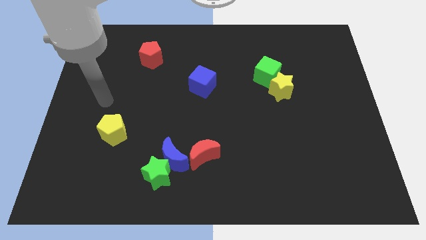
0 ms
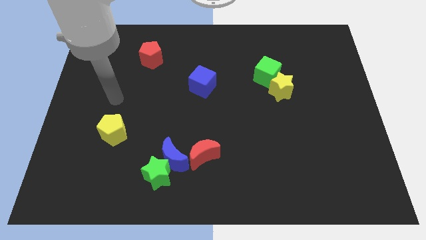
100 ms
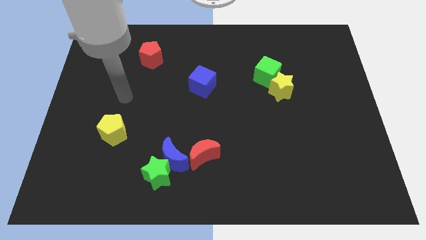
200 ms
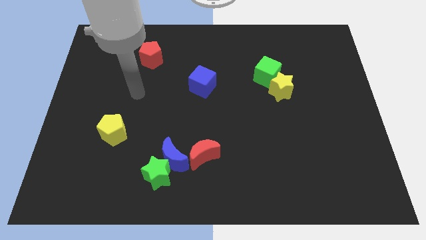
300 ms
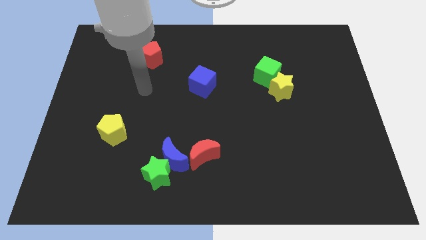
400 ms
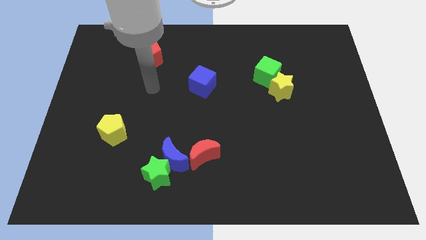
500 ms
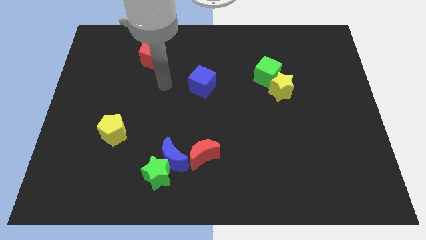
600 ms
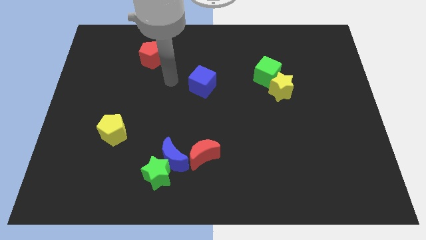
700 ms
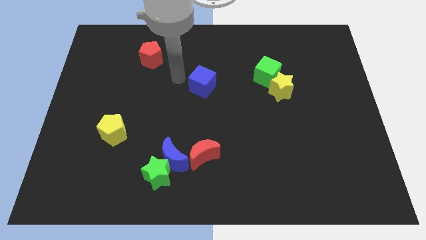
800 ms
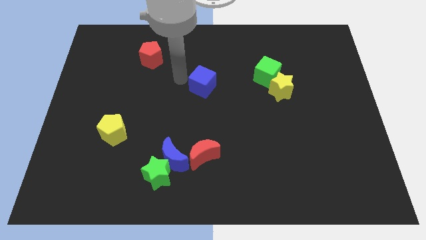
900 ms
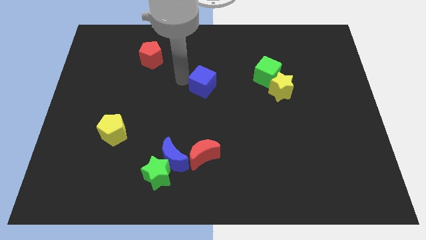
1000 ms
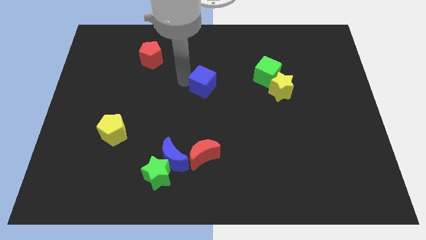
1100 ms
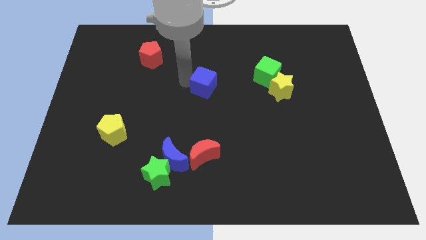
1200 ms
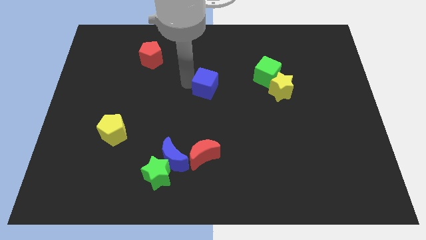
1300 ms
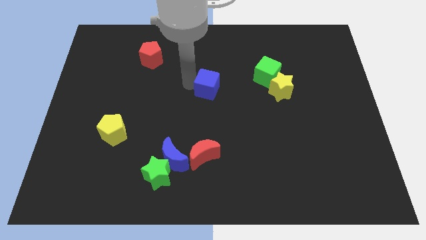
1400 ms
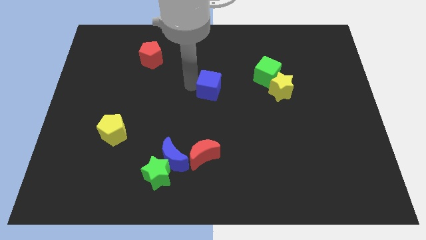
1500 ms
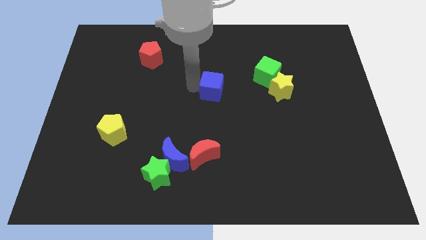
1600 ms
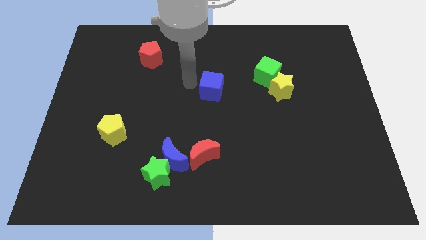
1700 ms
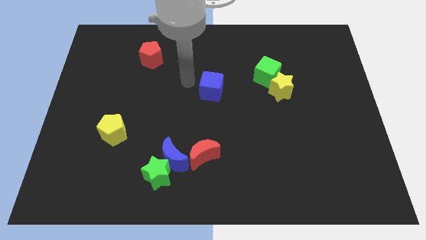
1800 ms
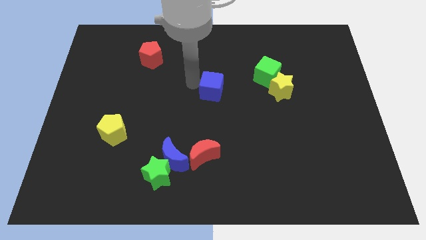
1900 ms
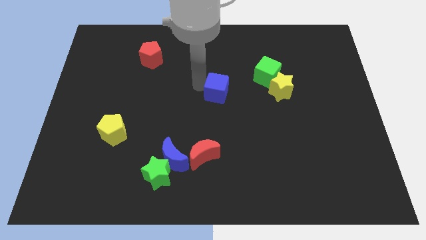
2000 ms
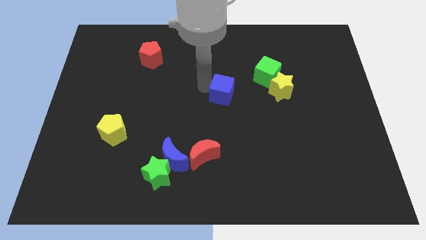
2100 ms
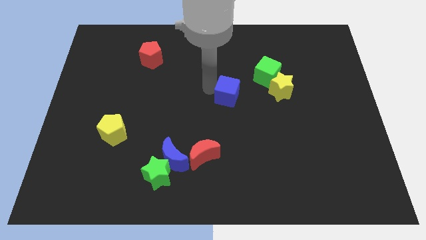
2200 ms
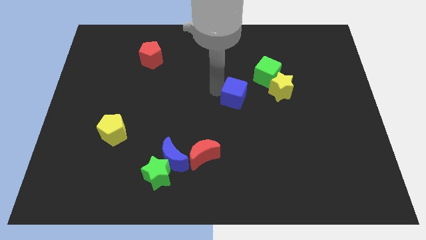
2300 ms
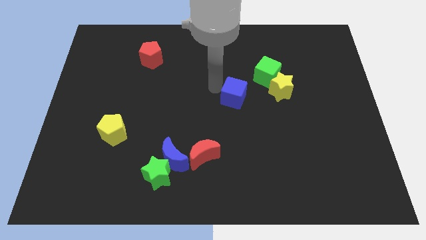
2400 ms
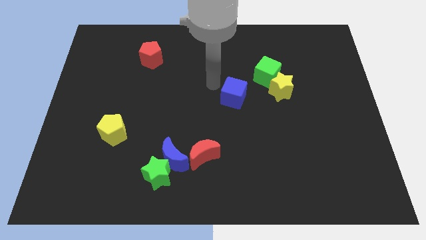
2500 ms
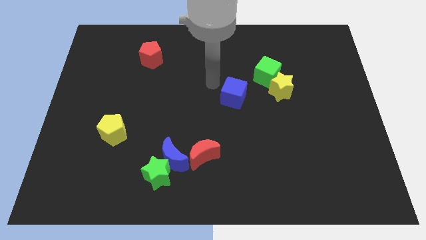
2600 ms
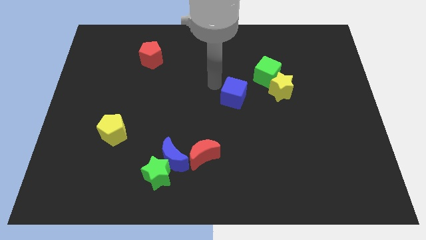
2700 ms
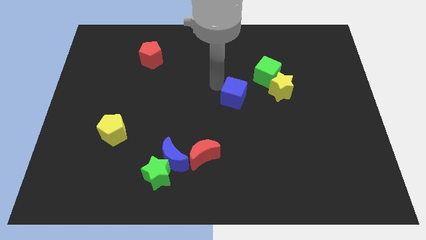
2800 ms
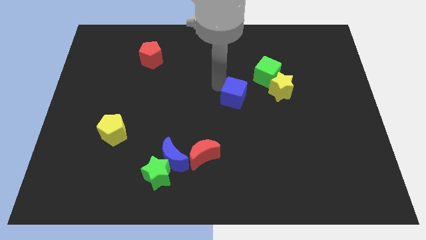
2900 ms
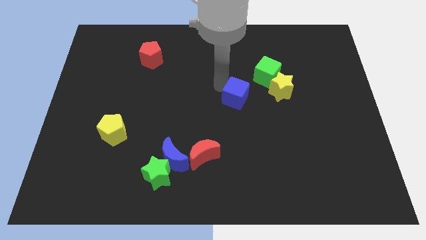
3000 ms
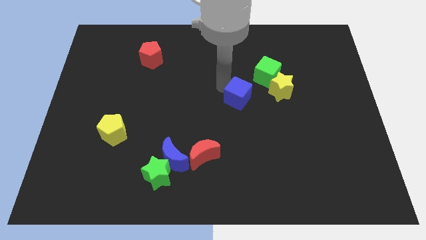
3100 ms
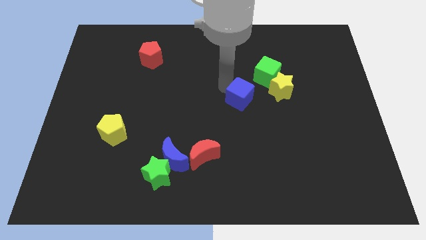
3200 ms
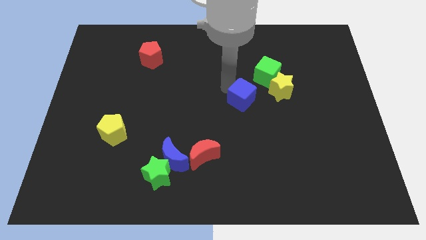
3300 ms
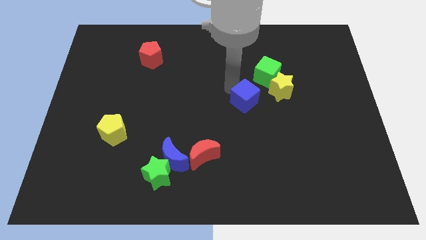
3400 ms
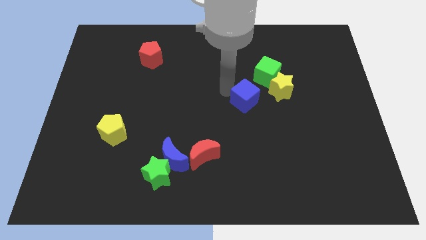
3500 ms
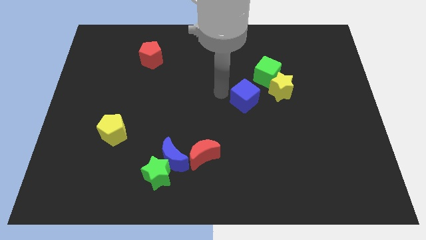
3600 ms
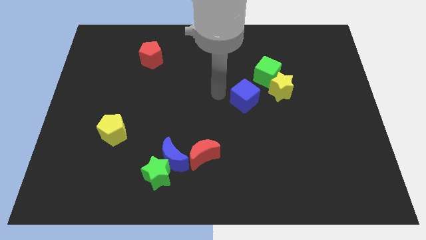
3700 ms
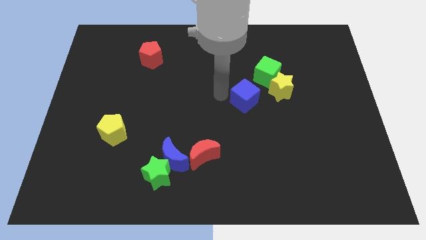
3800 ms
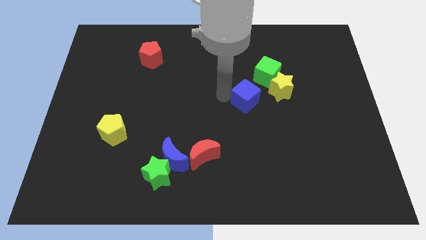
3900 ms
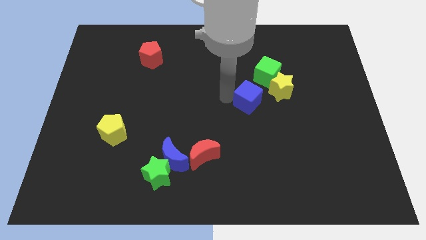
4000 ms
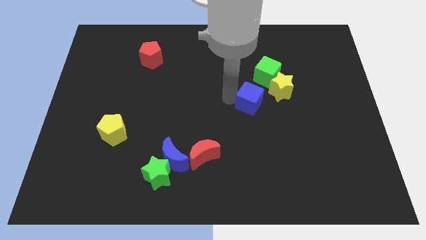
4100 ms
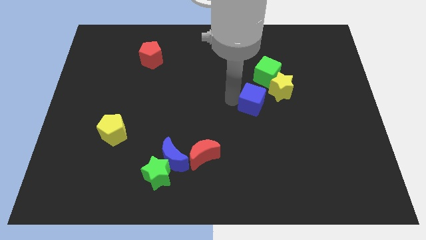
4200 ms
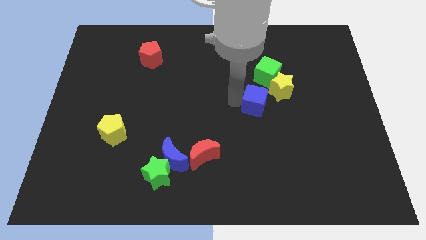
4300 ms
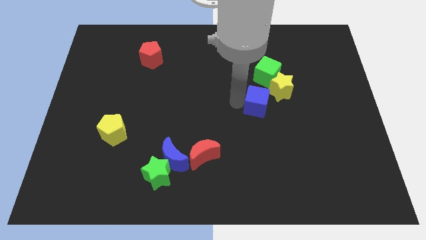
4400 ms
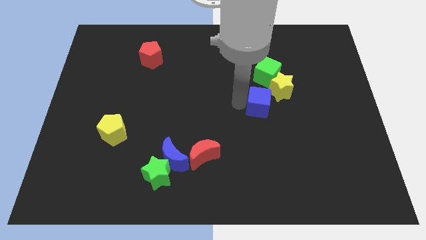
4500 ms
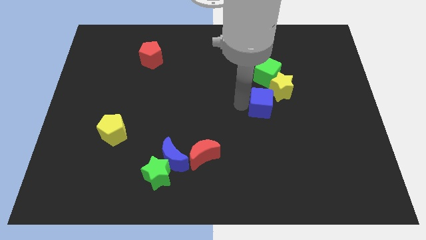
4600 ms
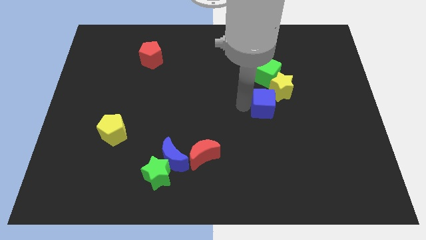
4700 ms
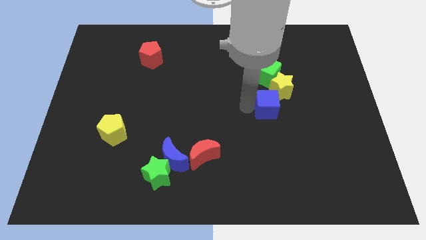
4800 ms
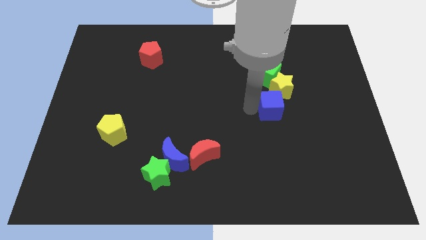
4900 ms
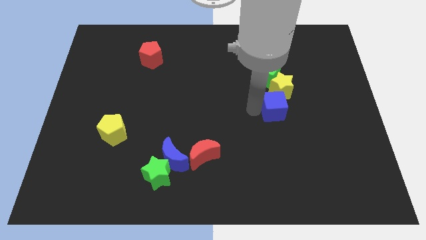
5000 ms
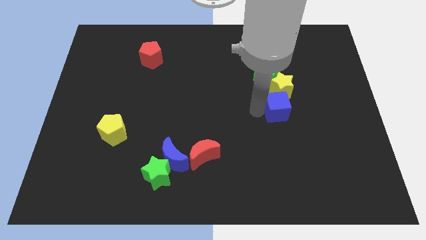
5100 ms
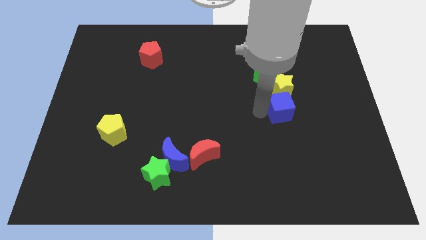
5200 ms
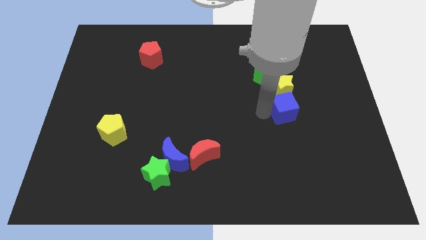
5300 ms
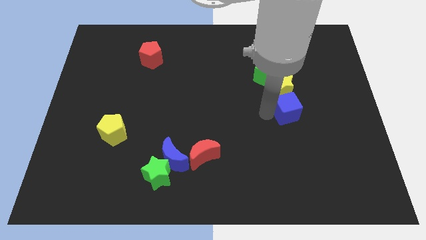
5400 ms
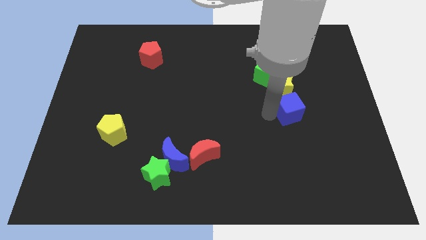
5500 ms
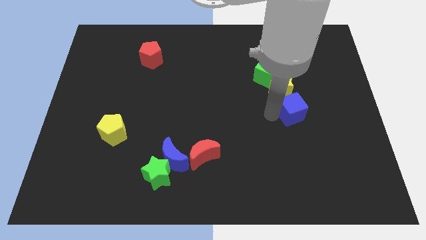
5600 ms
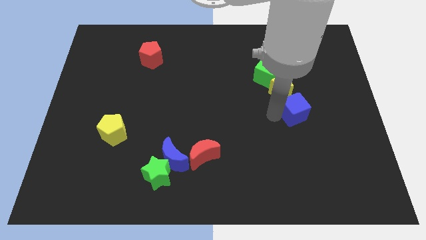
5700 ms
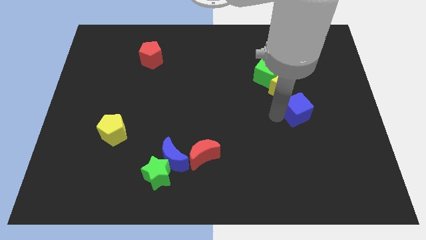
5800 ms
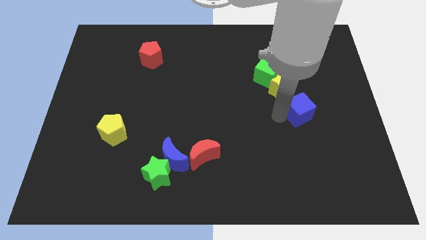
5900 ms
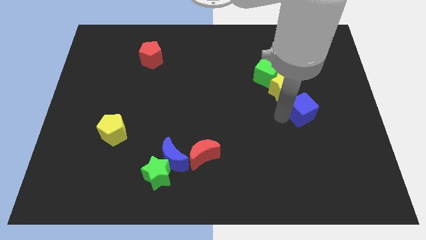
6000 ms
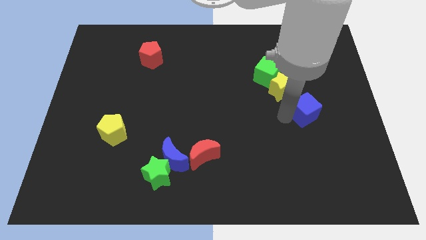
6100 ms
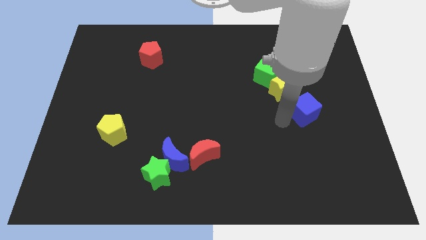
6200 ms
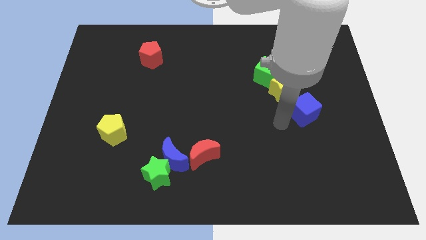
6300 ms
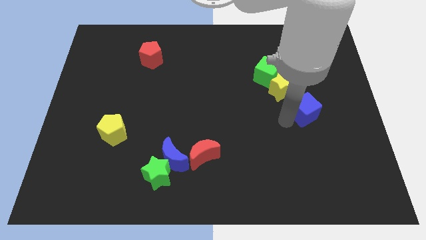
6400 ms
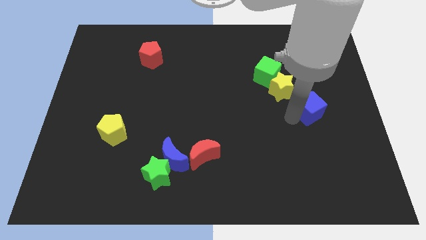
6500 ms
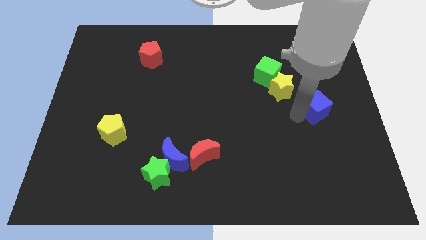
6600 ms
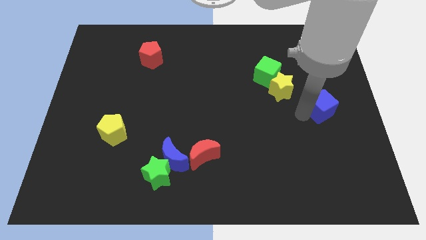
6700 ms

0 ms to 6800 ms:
slide the blue cube to the right side of the board
